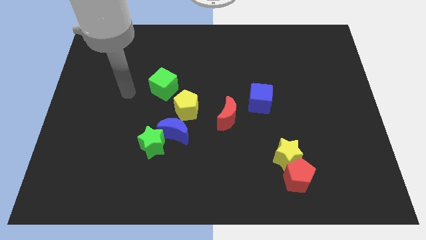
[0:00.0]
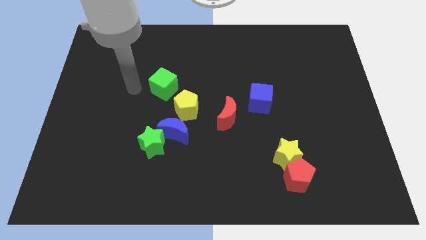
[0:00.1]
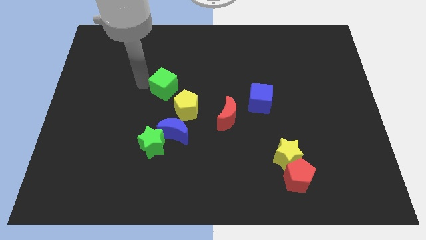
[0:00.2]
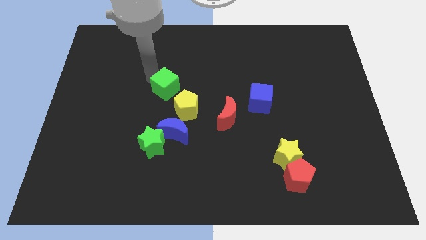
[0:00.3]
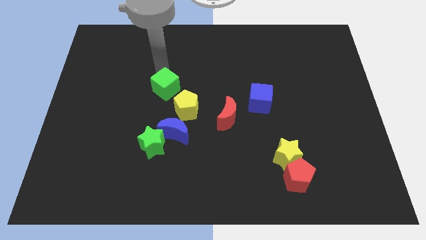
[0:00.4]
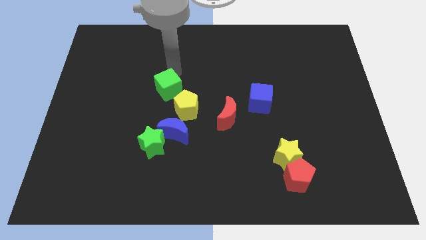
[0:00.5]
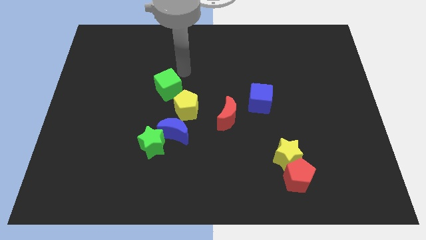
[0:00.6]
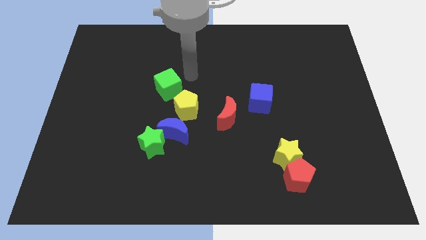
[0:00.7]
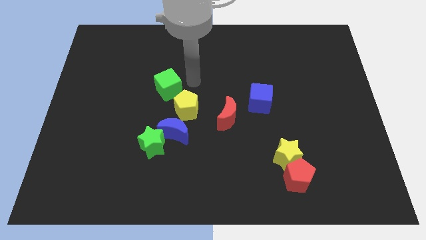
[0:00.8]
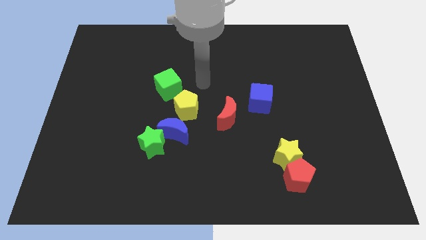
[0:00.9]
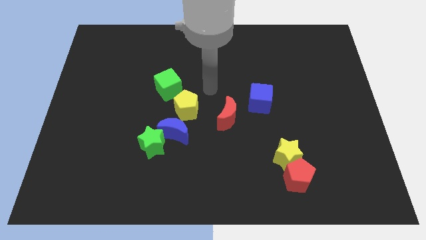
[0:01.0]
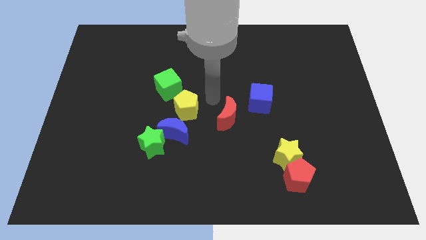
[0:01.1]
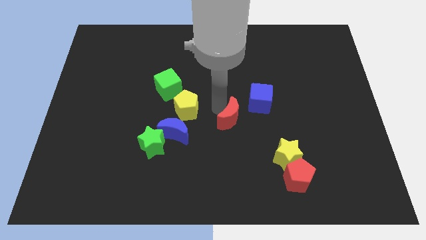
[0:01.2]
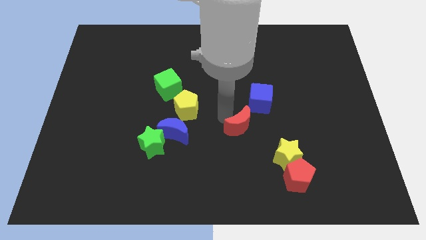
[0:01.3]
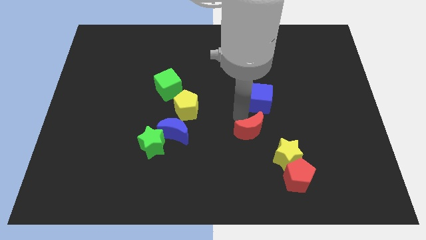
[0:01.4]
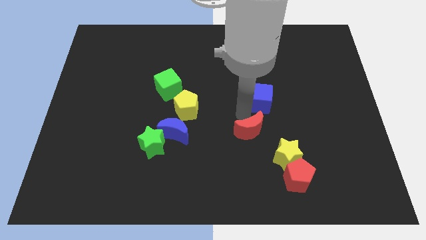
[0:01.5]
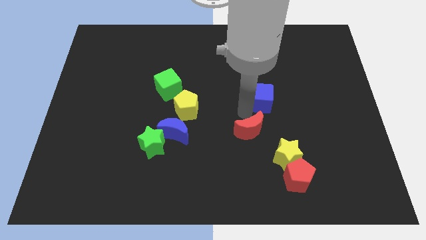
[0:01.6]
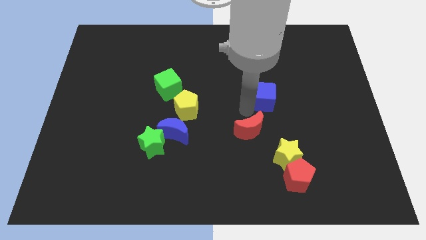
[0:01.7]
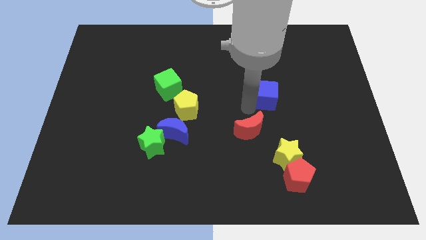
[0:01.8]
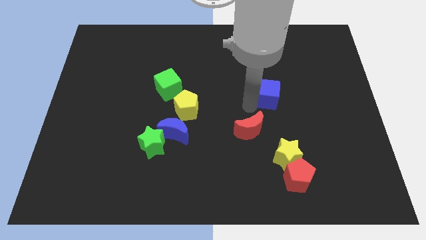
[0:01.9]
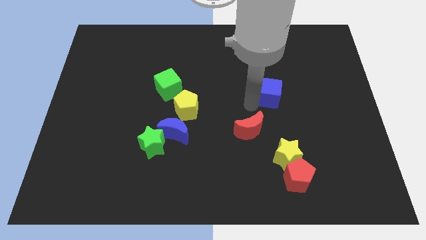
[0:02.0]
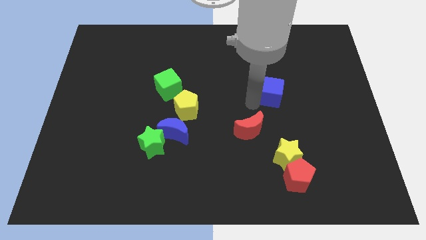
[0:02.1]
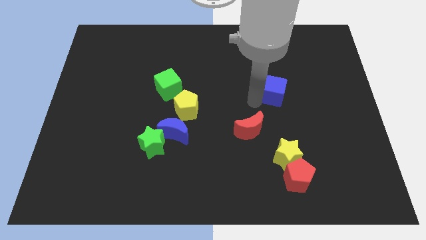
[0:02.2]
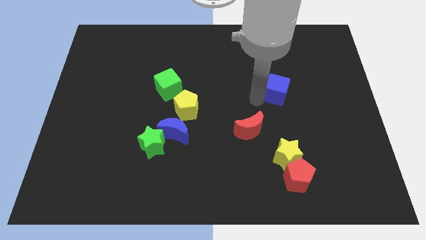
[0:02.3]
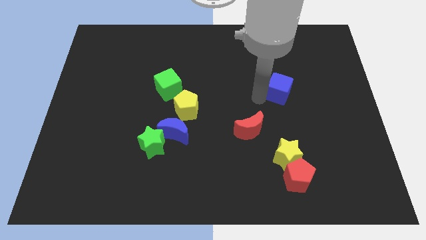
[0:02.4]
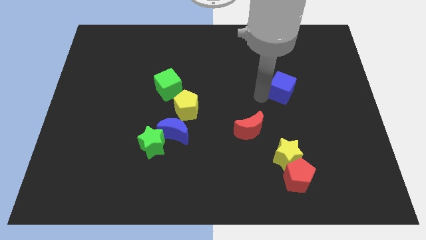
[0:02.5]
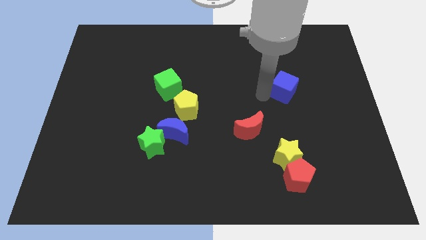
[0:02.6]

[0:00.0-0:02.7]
slide the blue cube a little bit upwards and to the right diagonally

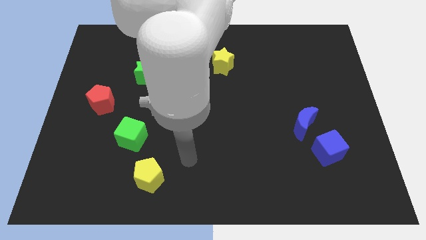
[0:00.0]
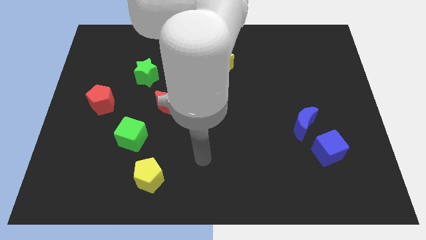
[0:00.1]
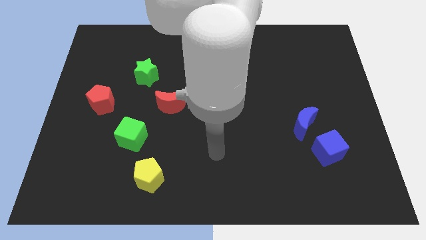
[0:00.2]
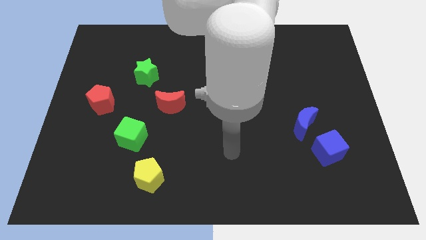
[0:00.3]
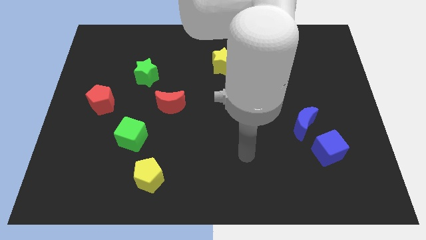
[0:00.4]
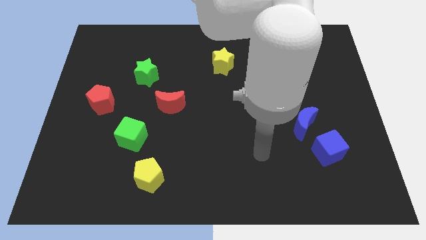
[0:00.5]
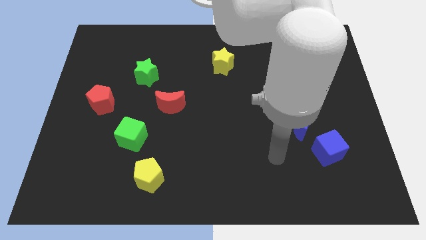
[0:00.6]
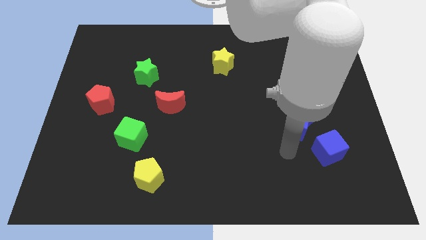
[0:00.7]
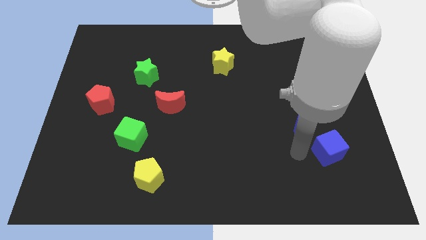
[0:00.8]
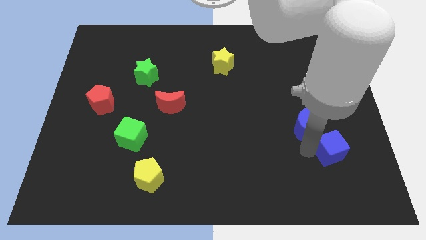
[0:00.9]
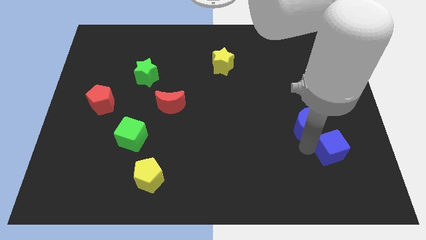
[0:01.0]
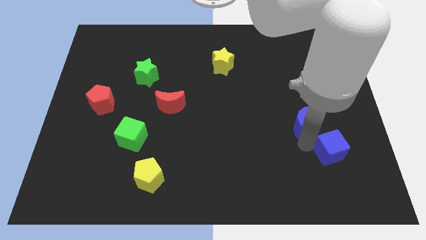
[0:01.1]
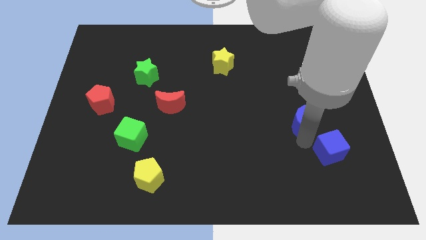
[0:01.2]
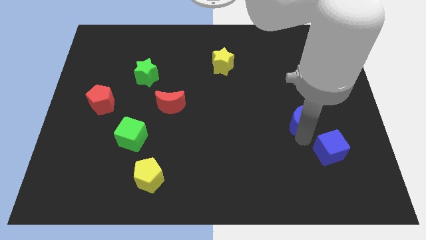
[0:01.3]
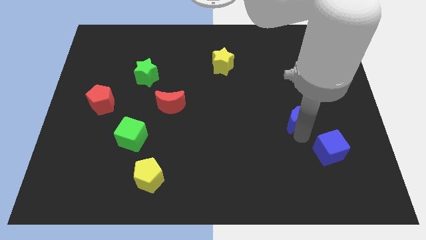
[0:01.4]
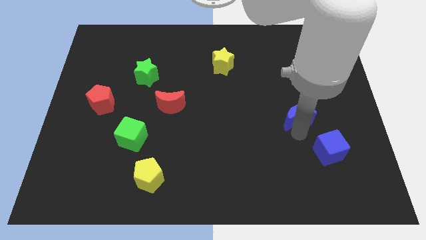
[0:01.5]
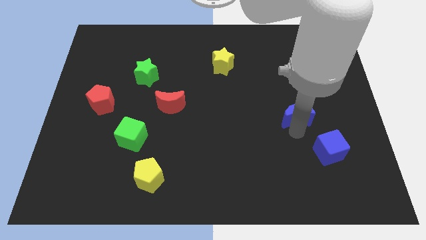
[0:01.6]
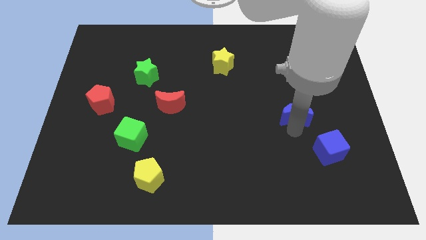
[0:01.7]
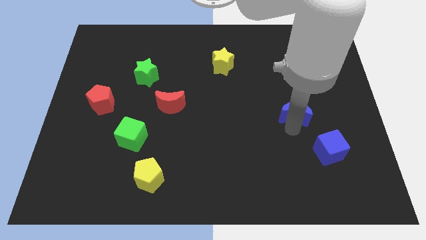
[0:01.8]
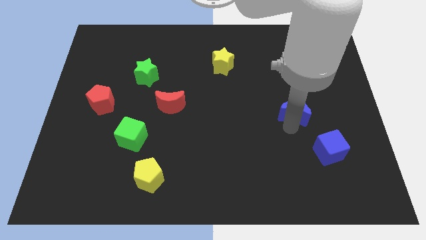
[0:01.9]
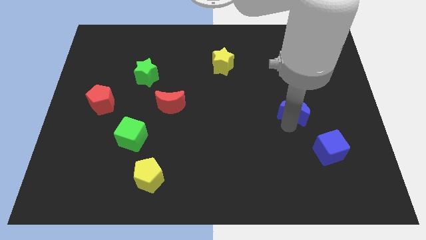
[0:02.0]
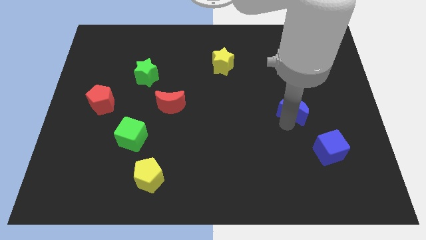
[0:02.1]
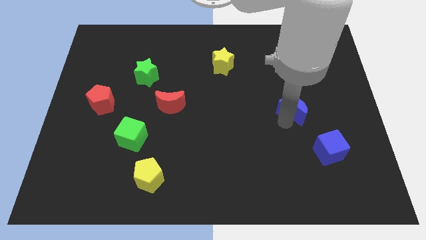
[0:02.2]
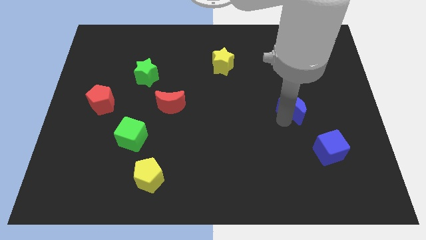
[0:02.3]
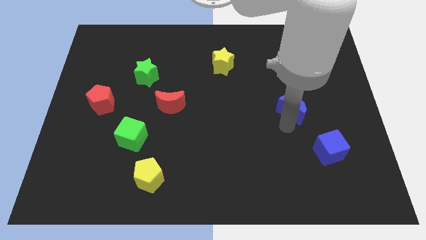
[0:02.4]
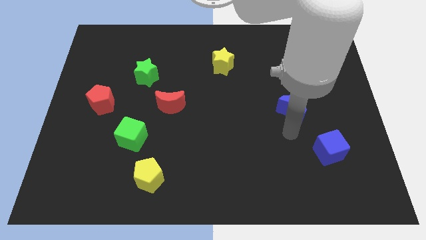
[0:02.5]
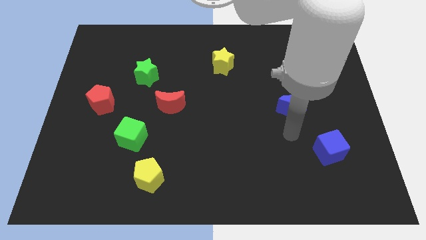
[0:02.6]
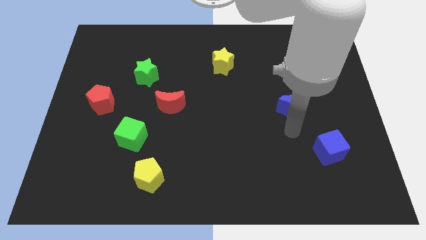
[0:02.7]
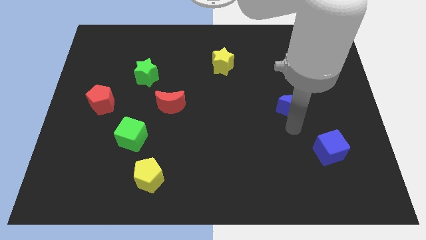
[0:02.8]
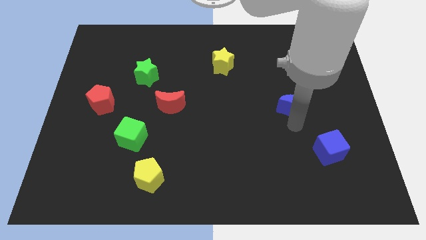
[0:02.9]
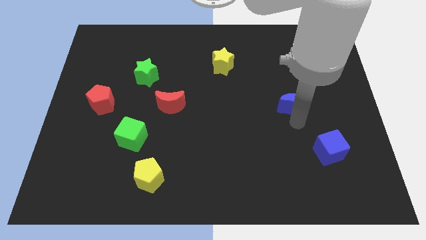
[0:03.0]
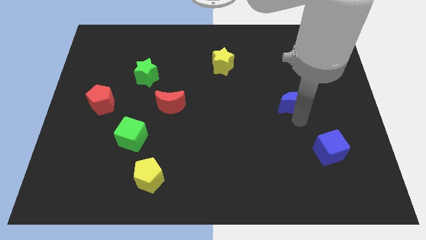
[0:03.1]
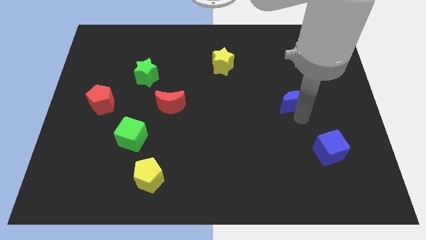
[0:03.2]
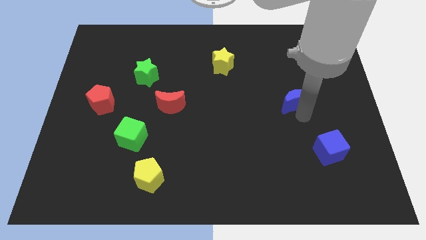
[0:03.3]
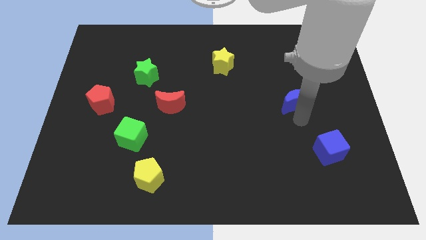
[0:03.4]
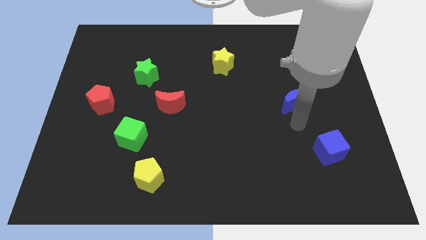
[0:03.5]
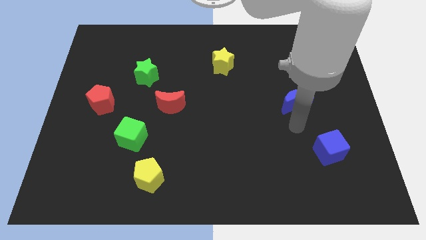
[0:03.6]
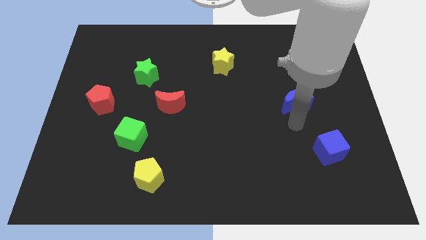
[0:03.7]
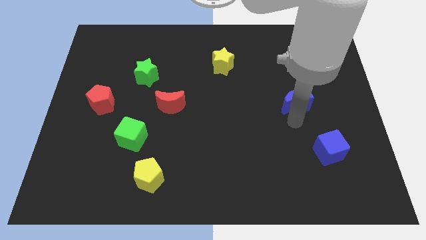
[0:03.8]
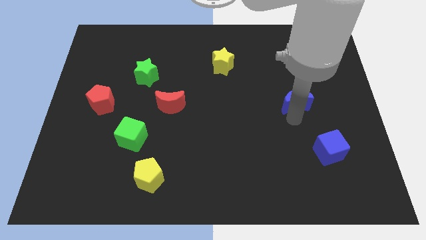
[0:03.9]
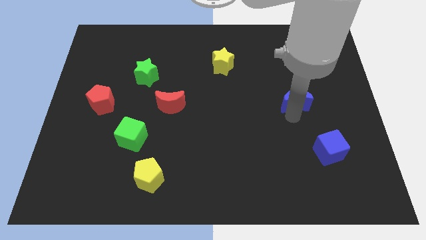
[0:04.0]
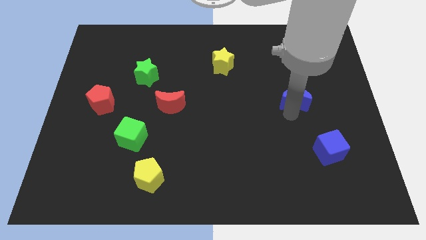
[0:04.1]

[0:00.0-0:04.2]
move the blue moon up slightly

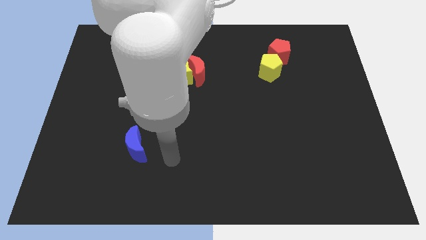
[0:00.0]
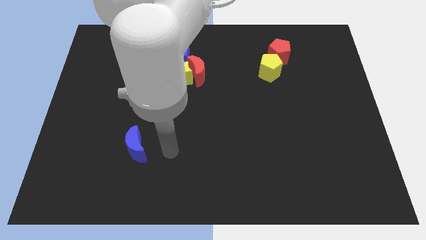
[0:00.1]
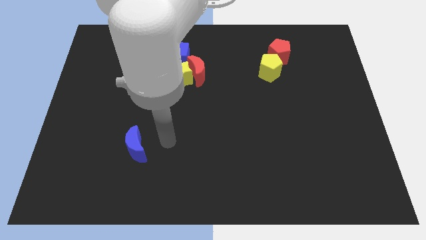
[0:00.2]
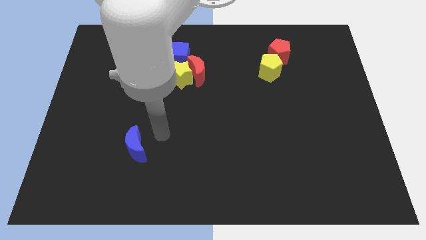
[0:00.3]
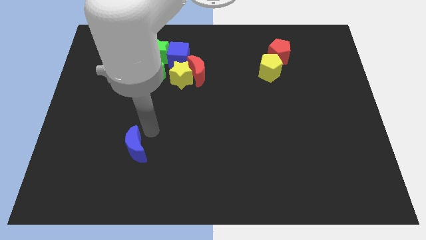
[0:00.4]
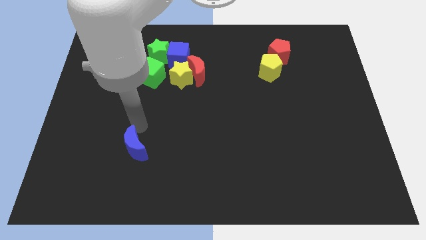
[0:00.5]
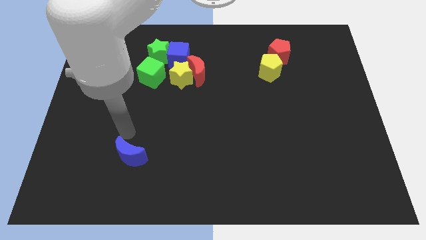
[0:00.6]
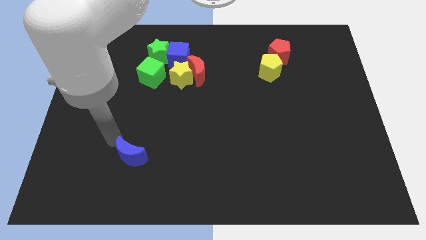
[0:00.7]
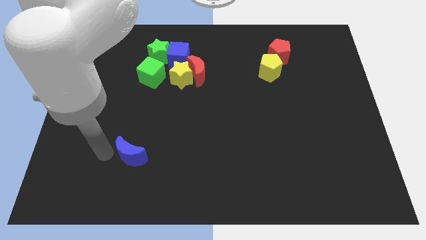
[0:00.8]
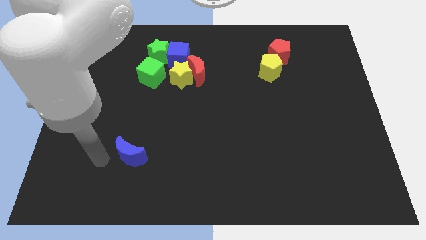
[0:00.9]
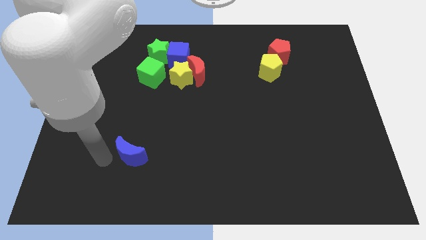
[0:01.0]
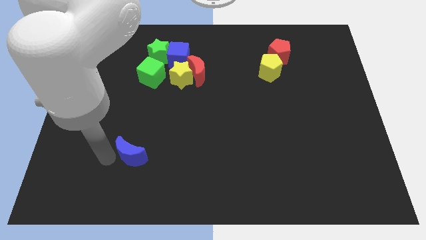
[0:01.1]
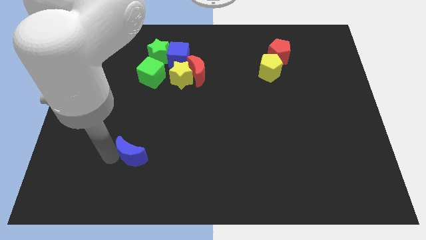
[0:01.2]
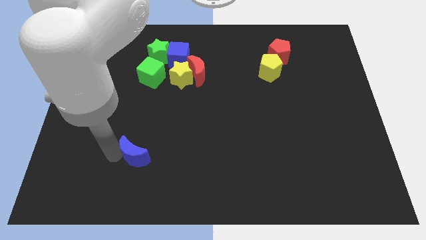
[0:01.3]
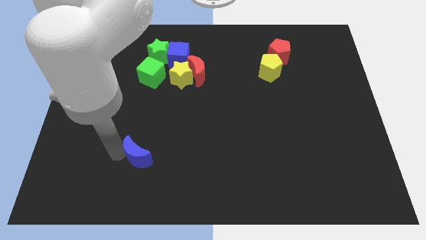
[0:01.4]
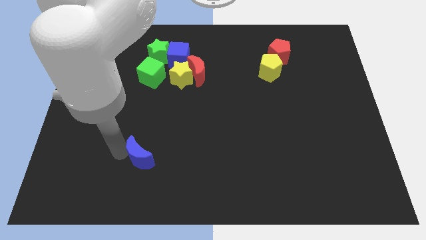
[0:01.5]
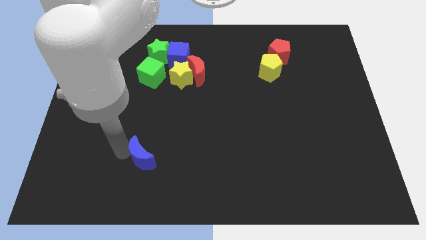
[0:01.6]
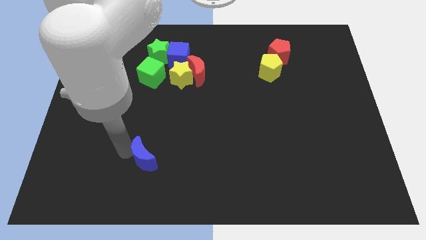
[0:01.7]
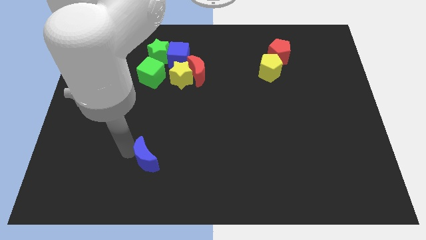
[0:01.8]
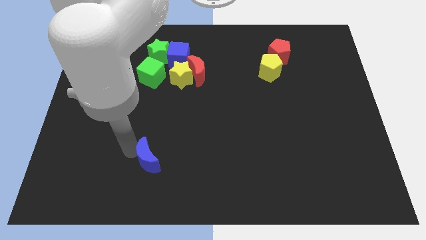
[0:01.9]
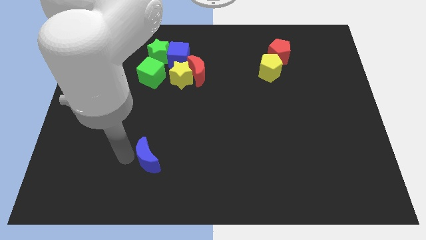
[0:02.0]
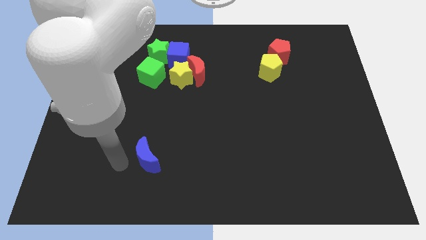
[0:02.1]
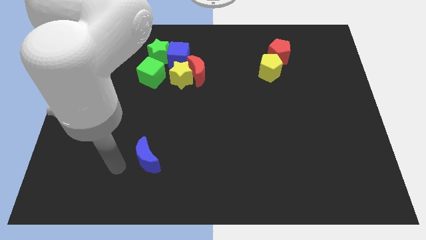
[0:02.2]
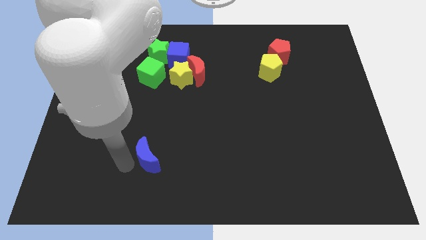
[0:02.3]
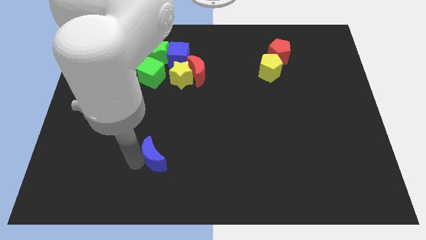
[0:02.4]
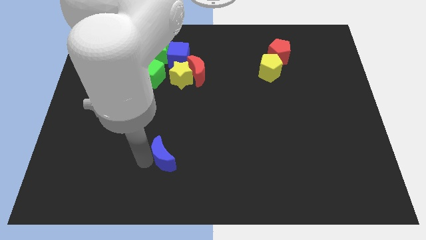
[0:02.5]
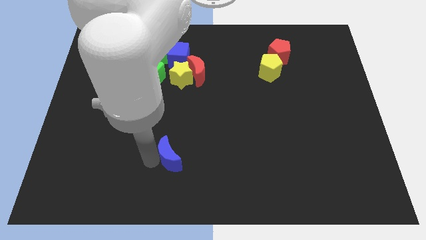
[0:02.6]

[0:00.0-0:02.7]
slightly slide the blue moon to the right
